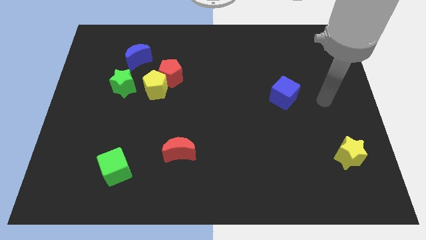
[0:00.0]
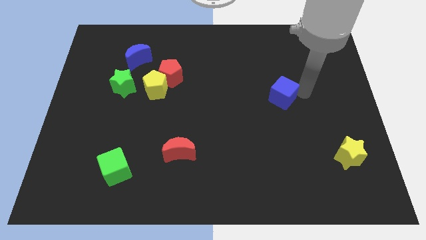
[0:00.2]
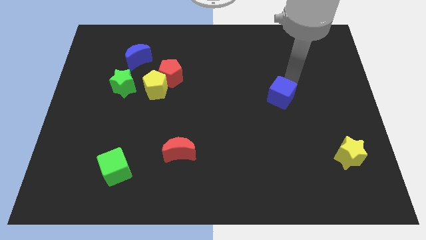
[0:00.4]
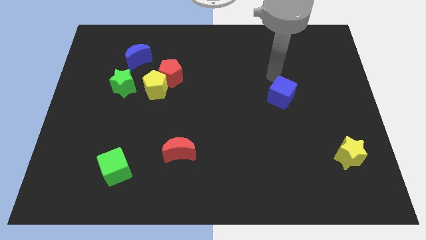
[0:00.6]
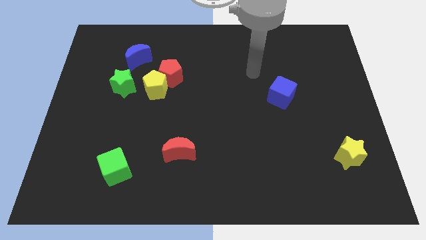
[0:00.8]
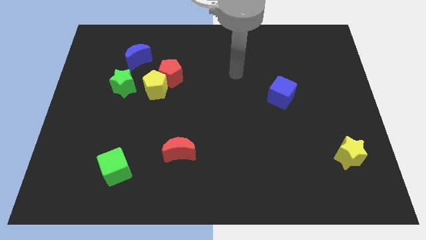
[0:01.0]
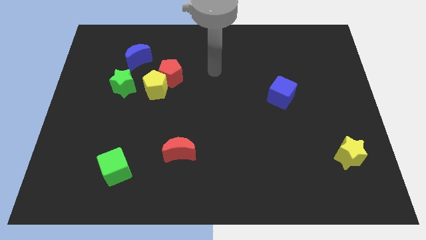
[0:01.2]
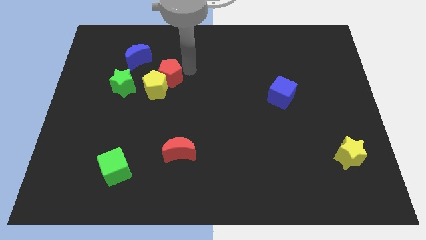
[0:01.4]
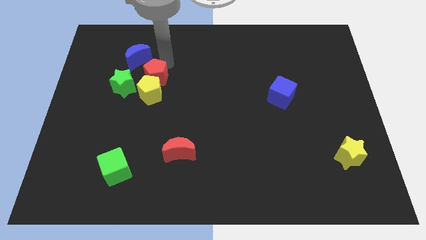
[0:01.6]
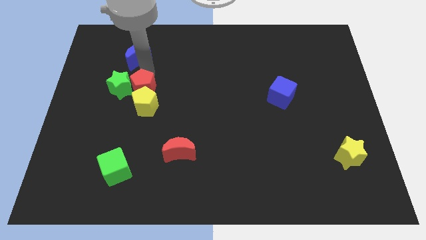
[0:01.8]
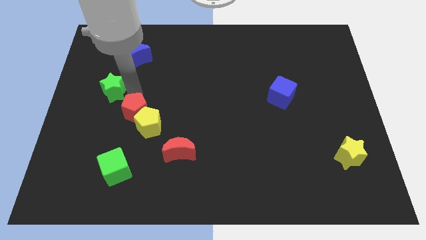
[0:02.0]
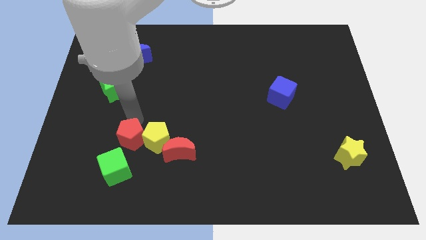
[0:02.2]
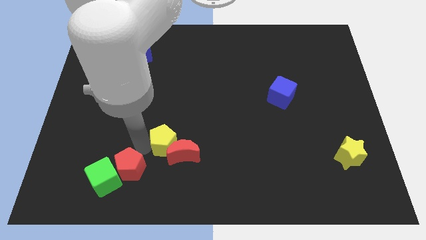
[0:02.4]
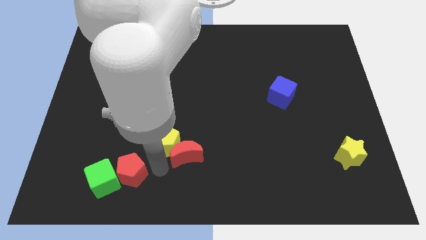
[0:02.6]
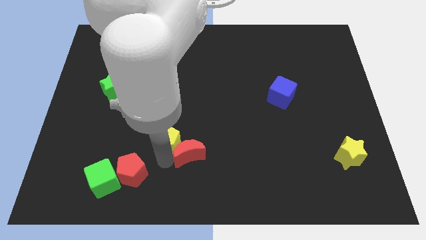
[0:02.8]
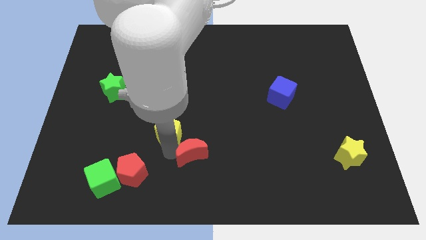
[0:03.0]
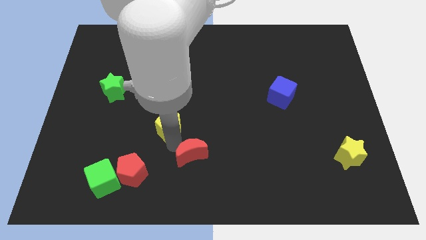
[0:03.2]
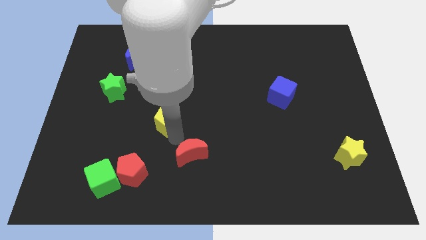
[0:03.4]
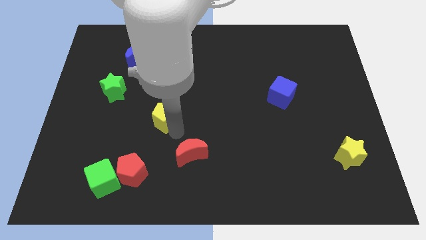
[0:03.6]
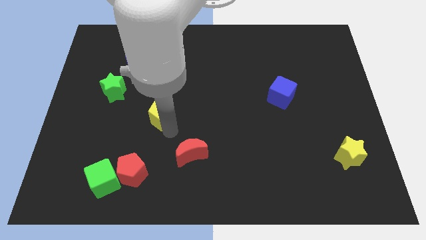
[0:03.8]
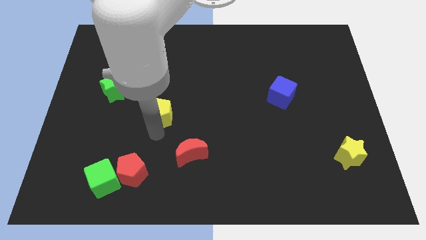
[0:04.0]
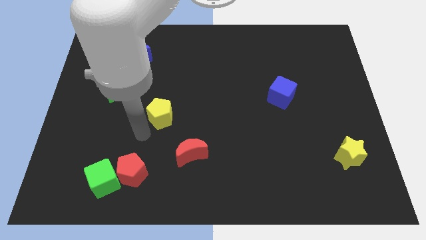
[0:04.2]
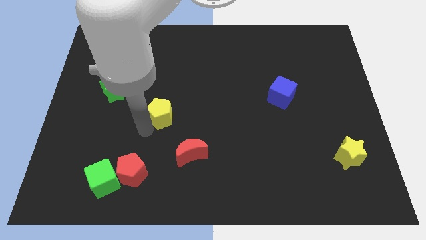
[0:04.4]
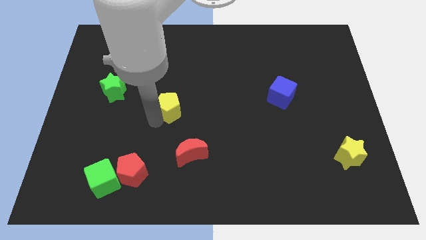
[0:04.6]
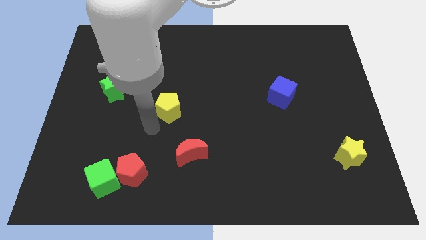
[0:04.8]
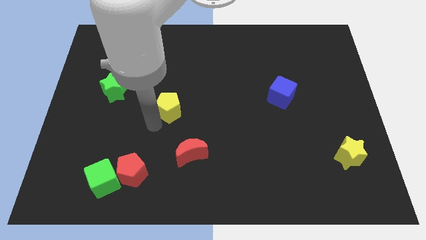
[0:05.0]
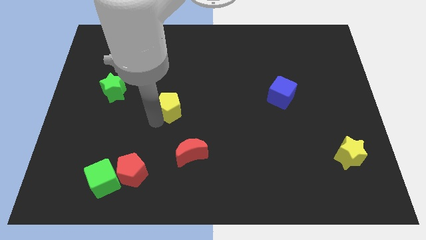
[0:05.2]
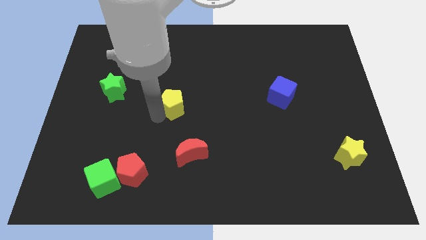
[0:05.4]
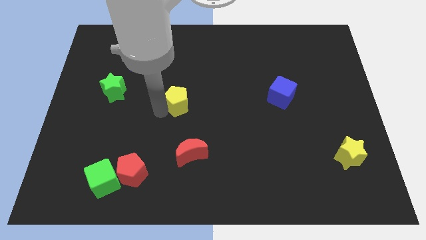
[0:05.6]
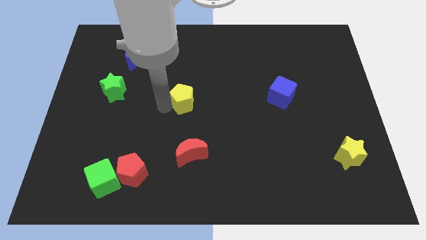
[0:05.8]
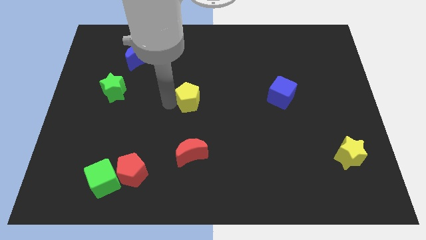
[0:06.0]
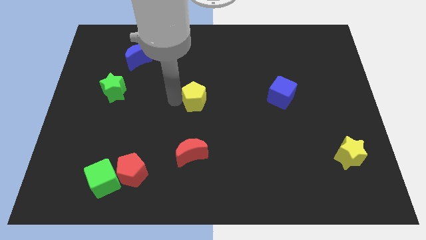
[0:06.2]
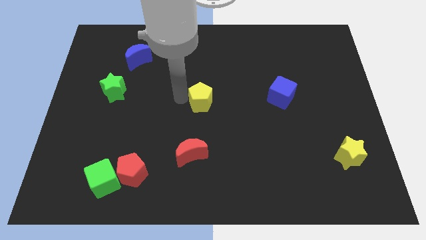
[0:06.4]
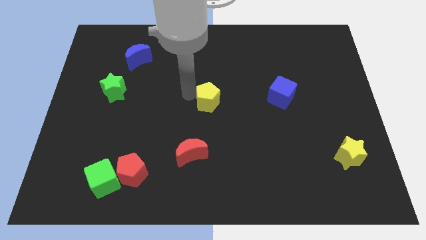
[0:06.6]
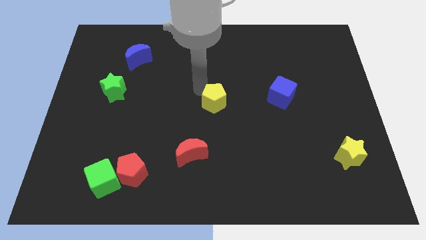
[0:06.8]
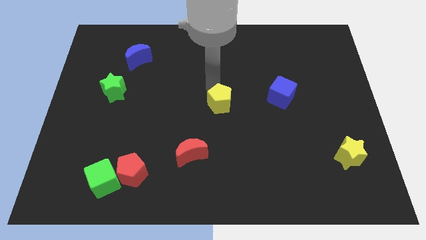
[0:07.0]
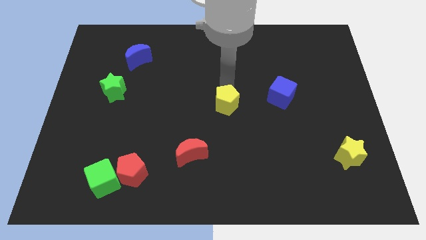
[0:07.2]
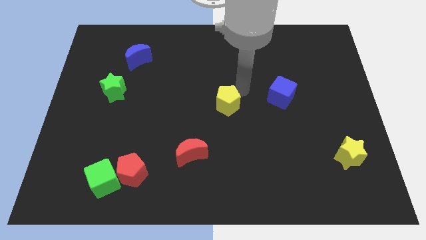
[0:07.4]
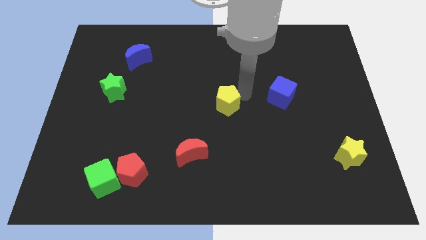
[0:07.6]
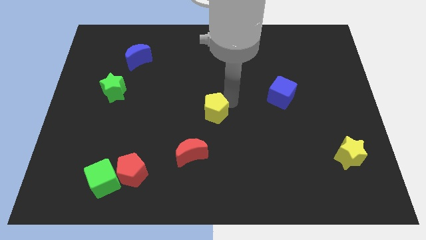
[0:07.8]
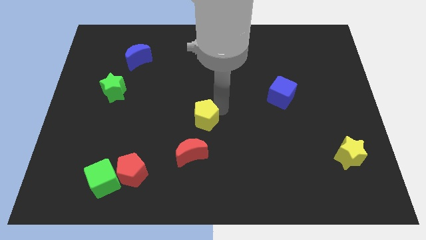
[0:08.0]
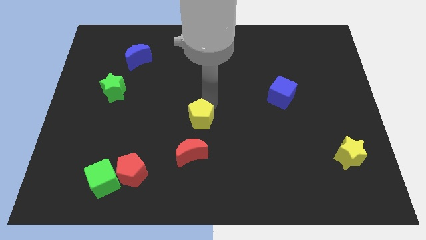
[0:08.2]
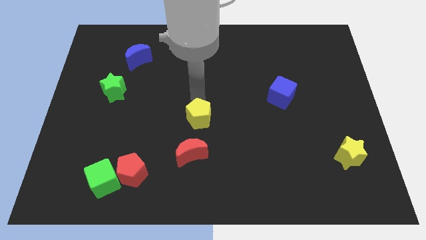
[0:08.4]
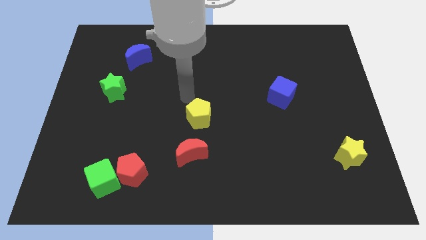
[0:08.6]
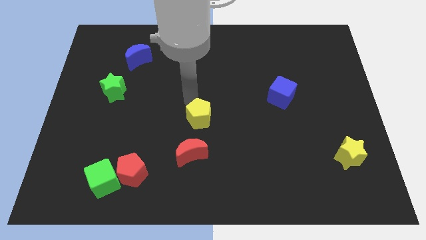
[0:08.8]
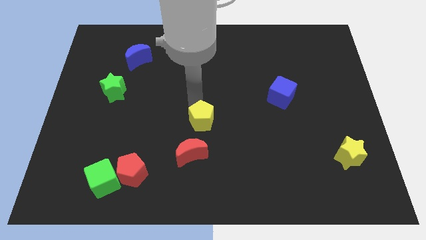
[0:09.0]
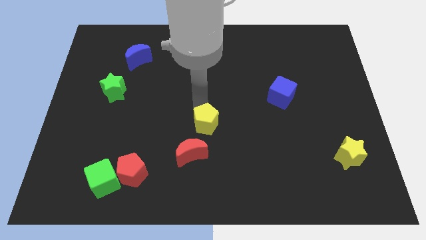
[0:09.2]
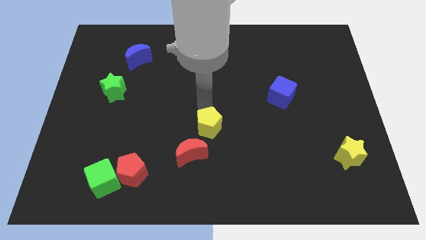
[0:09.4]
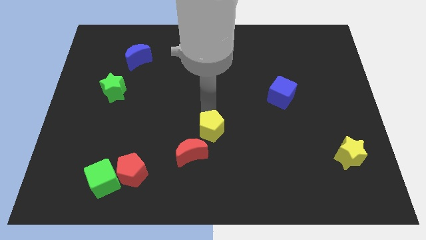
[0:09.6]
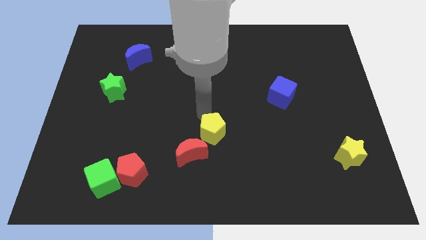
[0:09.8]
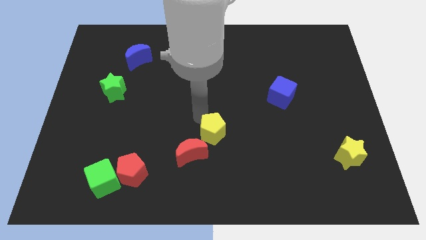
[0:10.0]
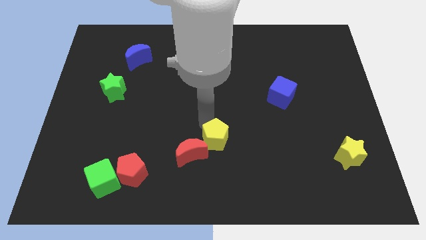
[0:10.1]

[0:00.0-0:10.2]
push the yellow pentagon downwards and right diagonally

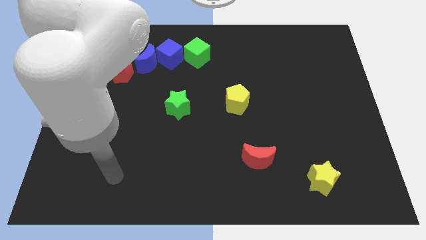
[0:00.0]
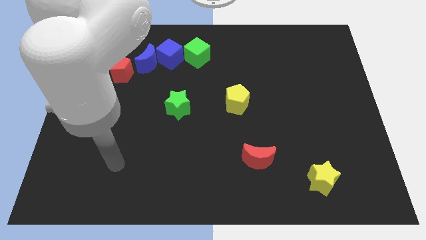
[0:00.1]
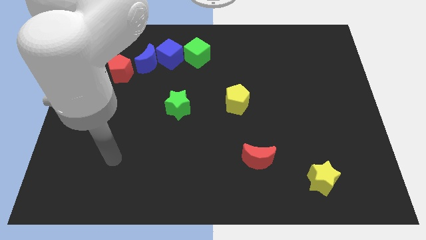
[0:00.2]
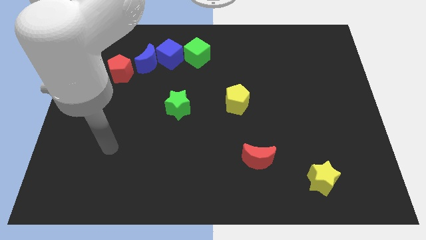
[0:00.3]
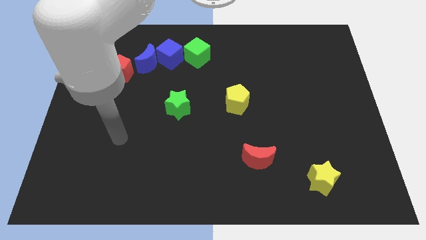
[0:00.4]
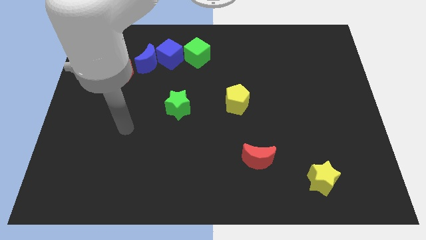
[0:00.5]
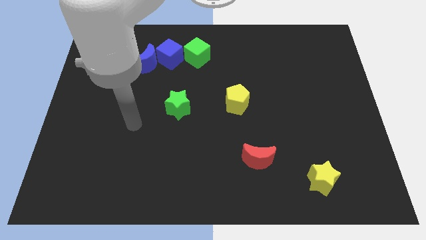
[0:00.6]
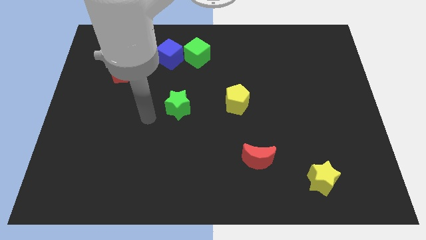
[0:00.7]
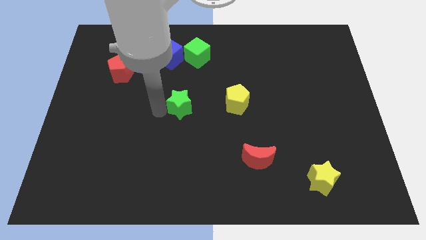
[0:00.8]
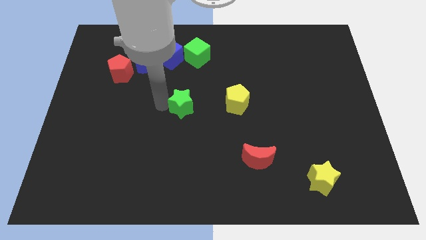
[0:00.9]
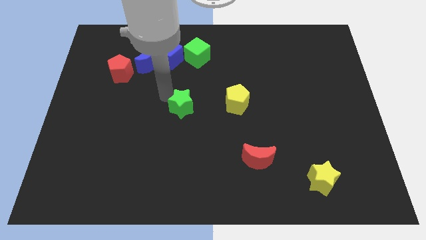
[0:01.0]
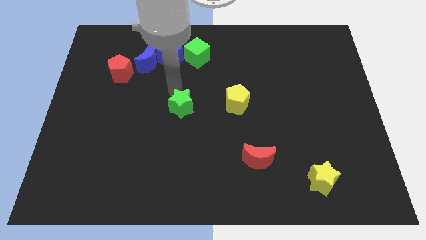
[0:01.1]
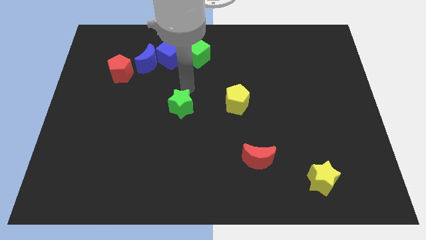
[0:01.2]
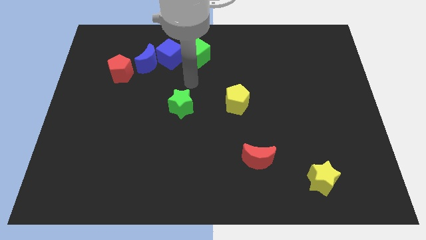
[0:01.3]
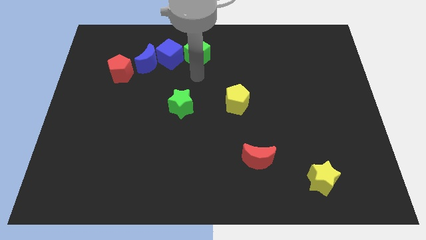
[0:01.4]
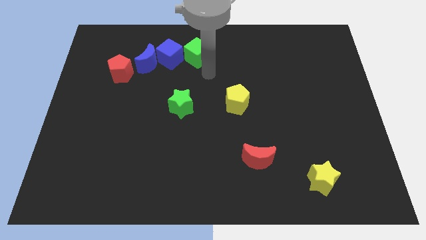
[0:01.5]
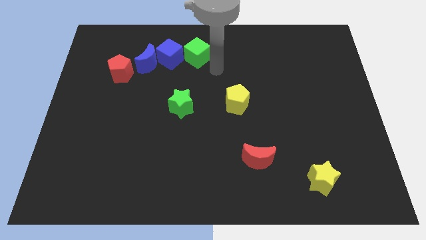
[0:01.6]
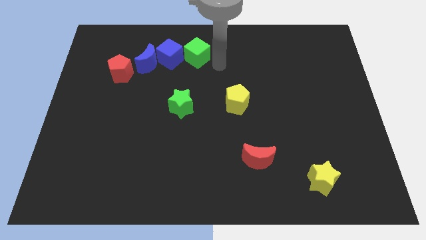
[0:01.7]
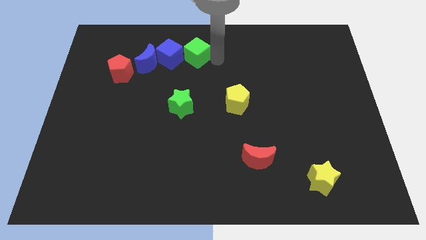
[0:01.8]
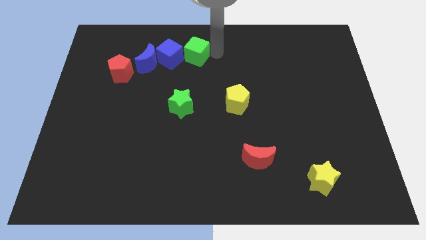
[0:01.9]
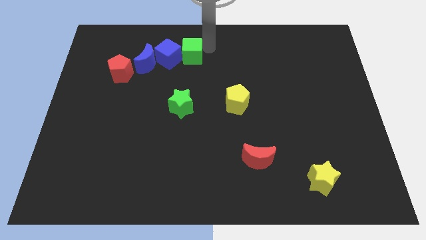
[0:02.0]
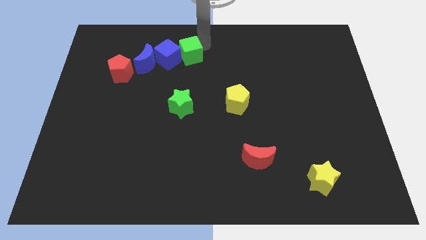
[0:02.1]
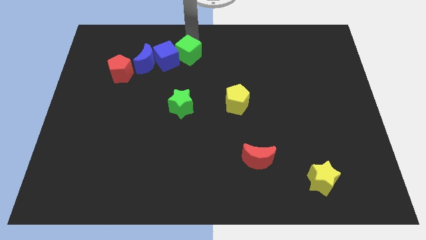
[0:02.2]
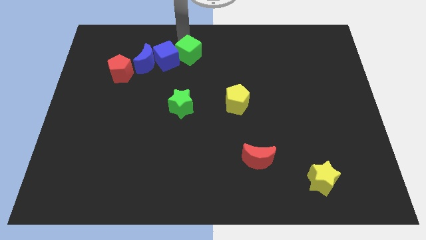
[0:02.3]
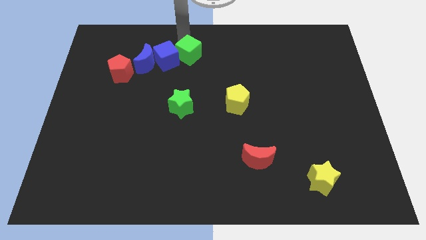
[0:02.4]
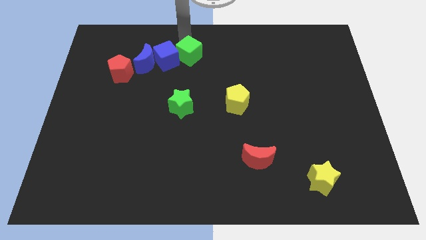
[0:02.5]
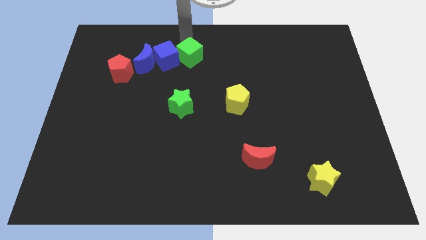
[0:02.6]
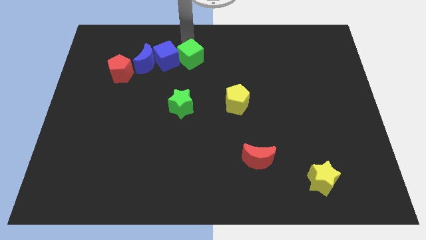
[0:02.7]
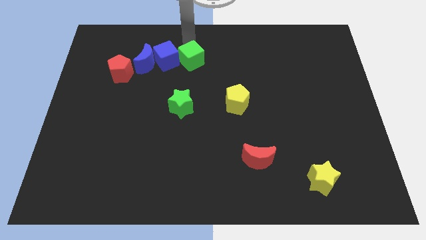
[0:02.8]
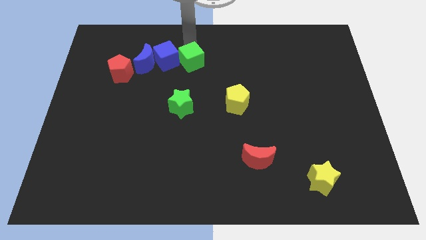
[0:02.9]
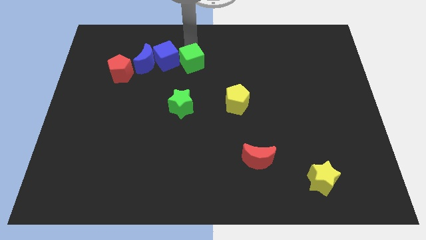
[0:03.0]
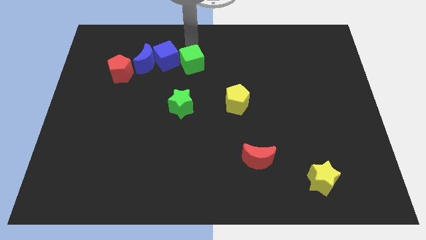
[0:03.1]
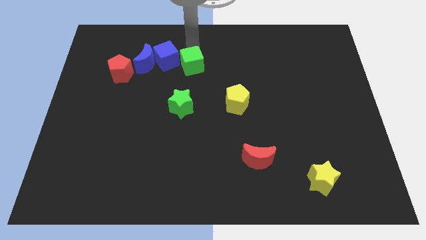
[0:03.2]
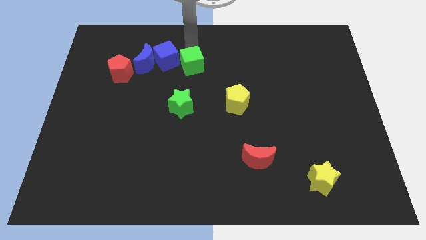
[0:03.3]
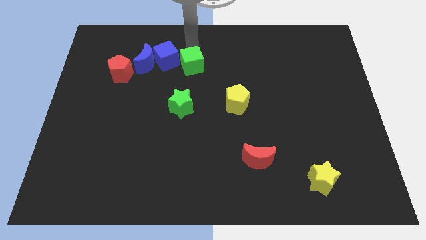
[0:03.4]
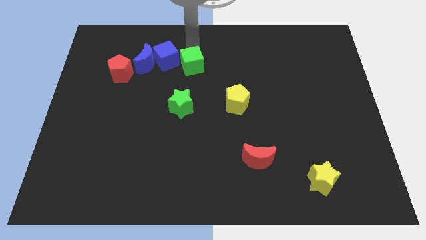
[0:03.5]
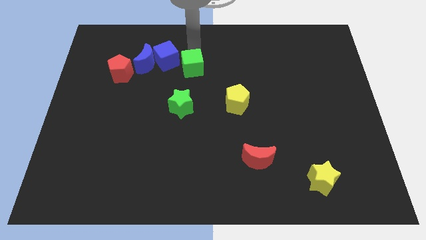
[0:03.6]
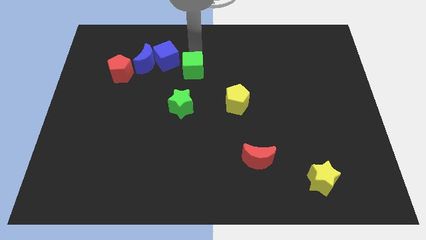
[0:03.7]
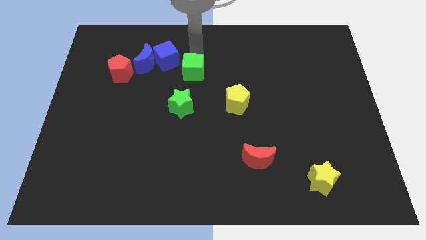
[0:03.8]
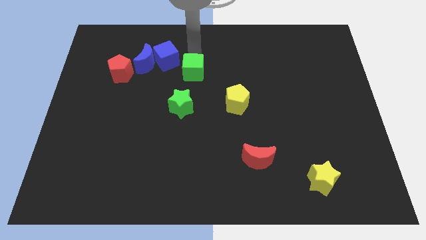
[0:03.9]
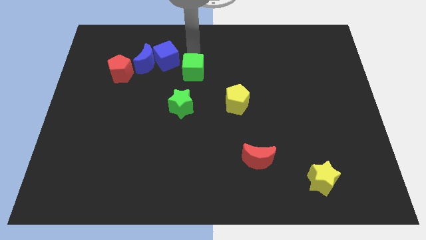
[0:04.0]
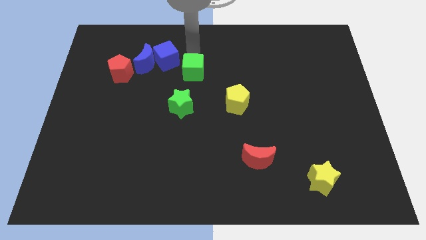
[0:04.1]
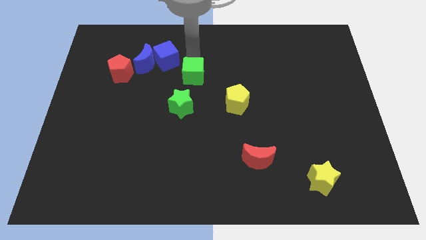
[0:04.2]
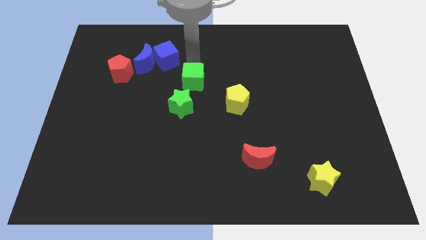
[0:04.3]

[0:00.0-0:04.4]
slightly push the green cube downwards
